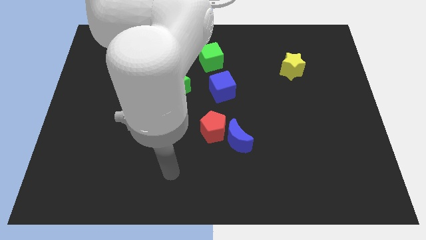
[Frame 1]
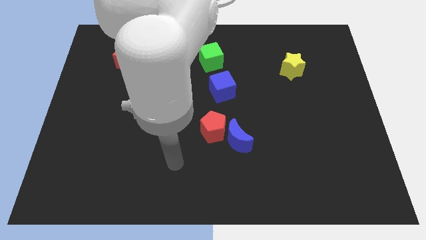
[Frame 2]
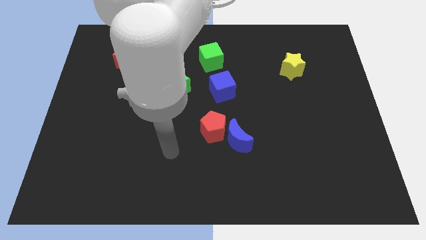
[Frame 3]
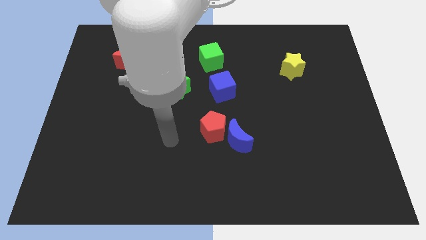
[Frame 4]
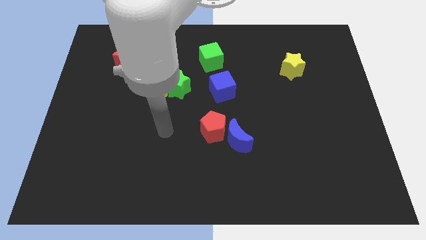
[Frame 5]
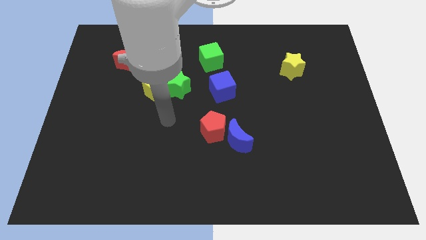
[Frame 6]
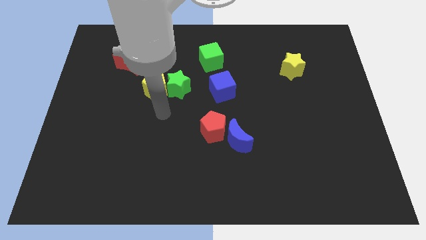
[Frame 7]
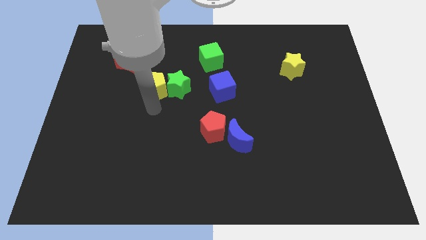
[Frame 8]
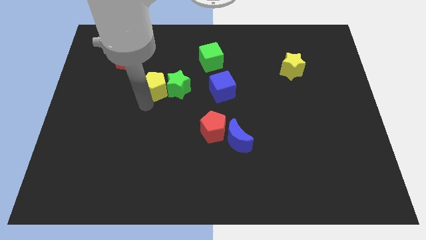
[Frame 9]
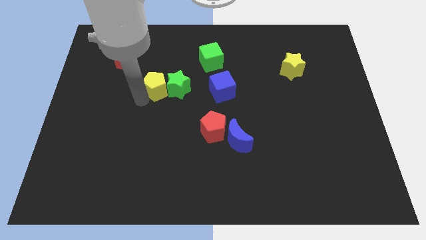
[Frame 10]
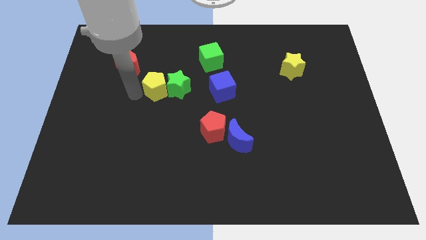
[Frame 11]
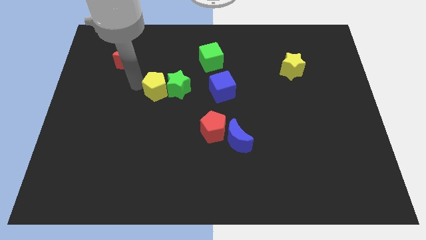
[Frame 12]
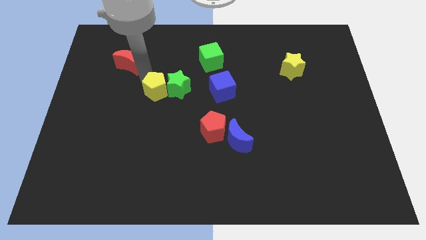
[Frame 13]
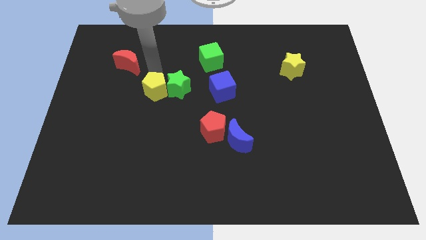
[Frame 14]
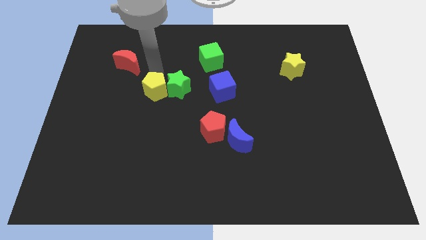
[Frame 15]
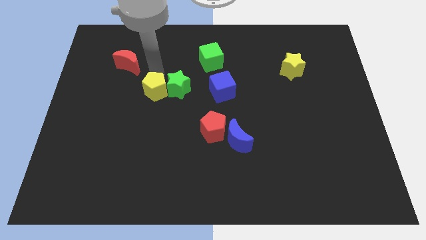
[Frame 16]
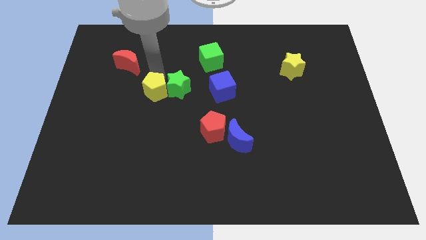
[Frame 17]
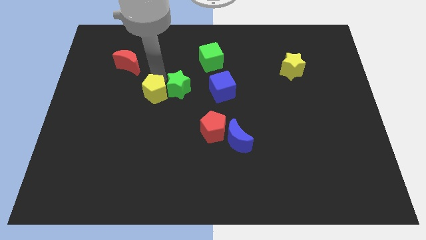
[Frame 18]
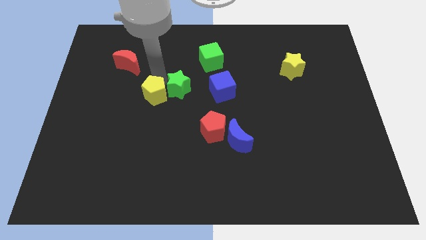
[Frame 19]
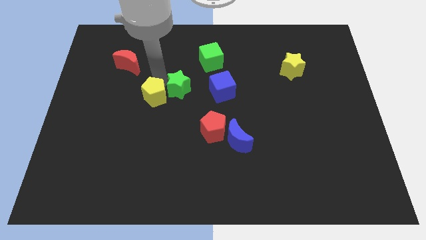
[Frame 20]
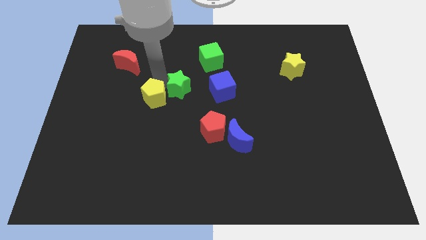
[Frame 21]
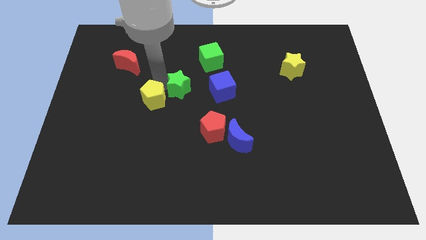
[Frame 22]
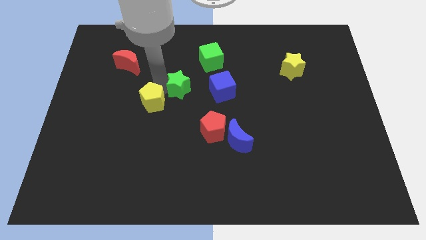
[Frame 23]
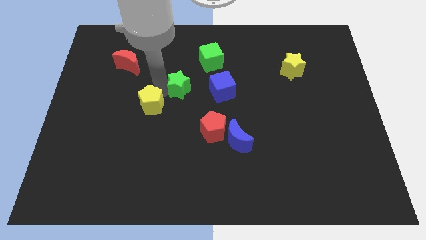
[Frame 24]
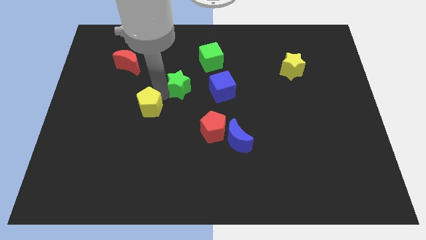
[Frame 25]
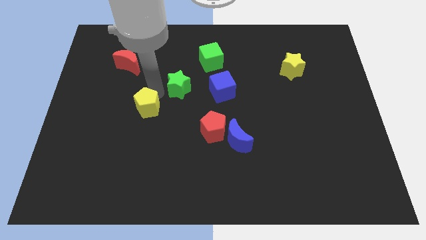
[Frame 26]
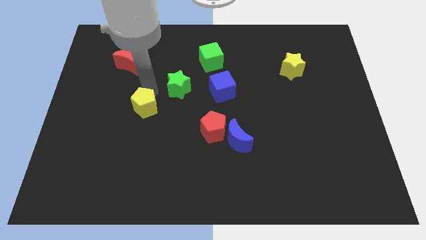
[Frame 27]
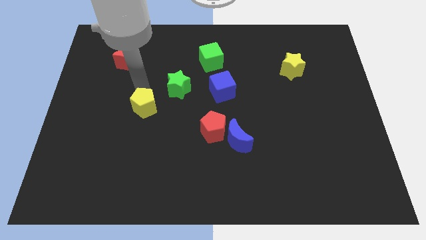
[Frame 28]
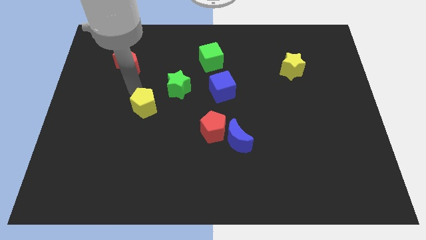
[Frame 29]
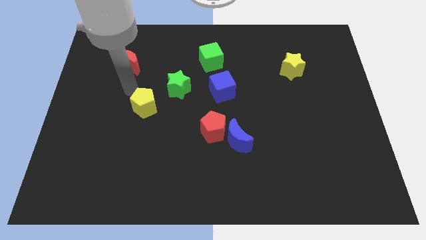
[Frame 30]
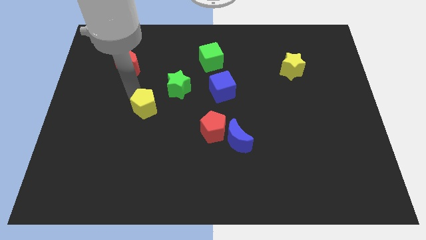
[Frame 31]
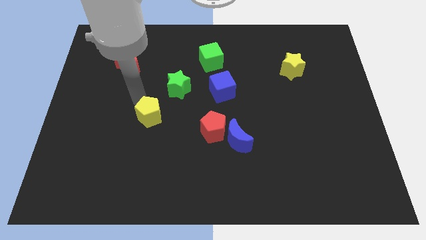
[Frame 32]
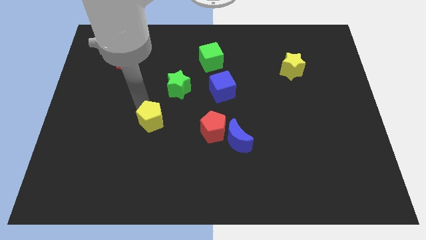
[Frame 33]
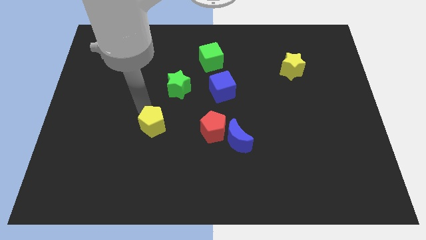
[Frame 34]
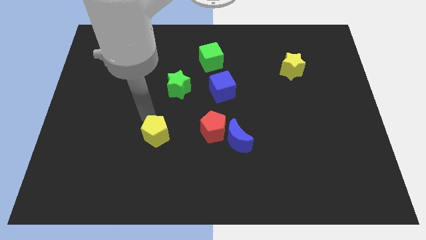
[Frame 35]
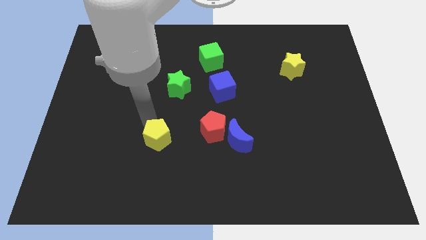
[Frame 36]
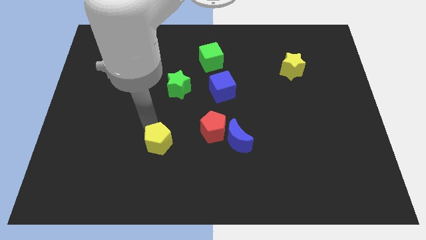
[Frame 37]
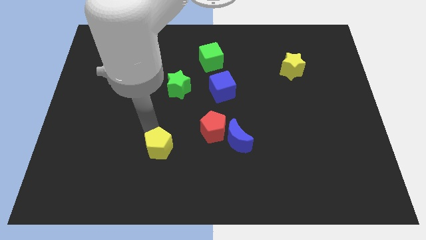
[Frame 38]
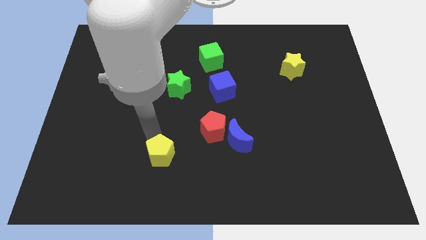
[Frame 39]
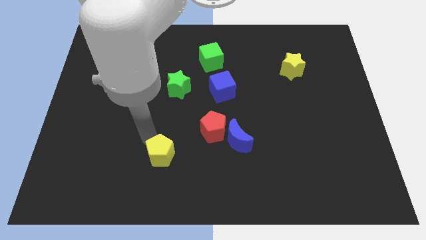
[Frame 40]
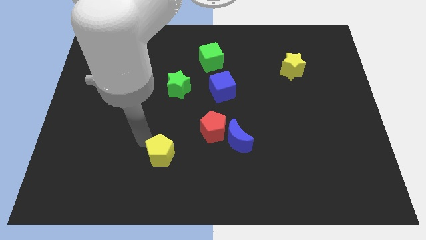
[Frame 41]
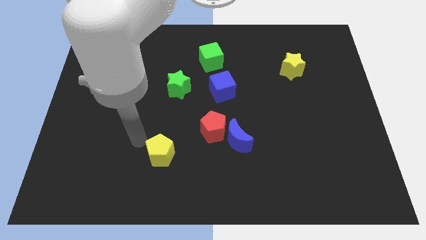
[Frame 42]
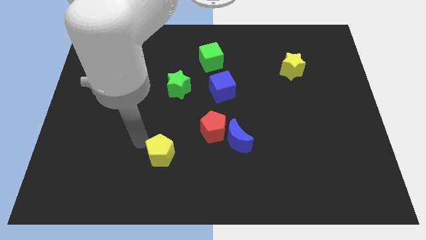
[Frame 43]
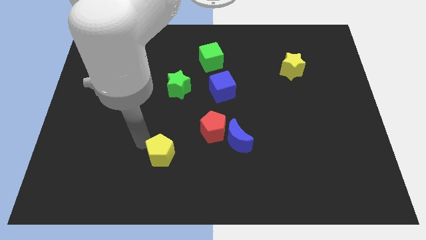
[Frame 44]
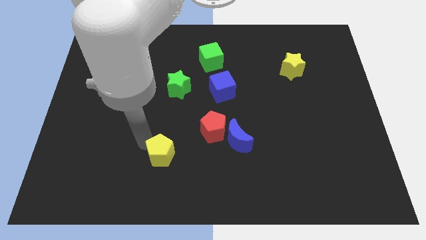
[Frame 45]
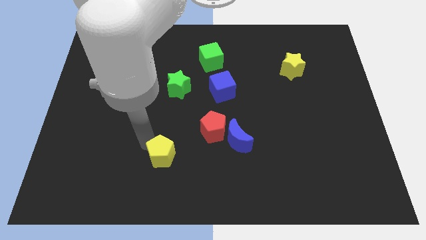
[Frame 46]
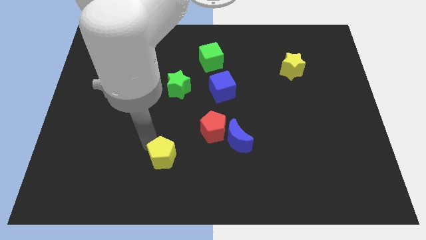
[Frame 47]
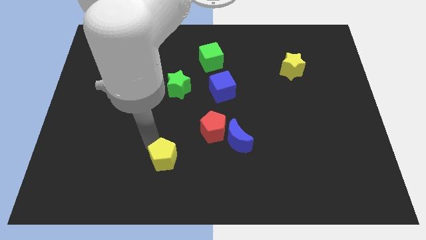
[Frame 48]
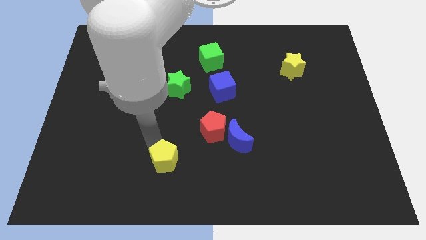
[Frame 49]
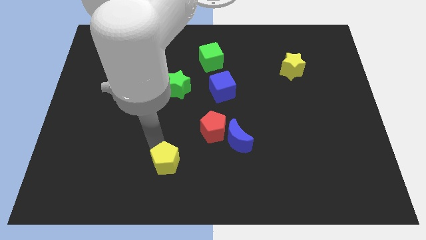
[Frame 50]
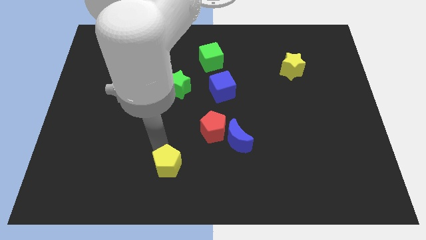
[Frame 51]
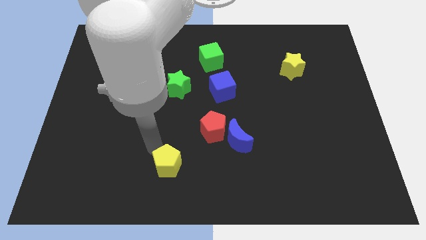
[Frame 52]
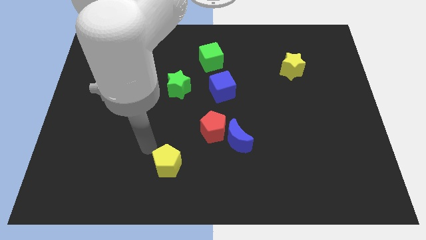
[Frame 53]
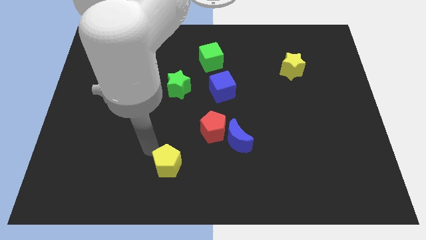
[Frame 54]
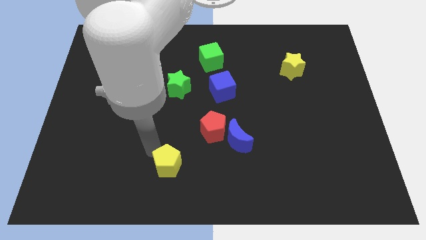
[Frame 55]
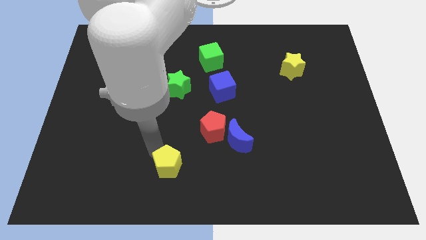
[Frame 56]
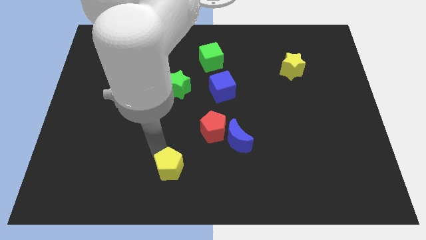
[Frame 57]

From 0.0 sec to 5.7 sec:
put the yellow pentagon to the bottom side

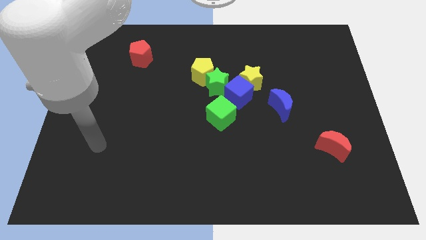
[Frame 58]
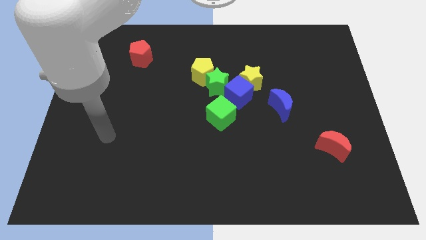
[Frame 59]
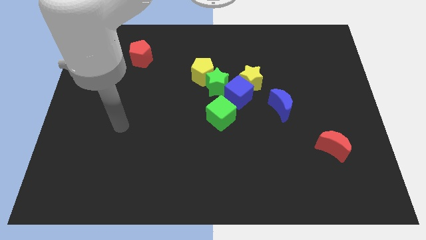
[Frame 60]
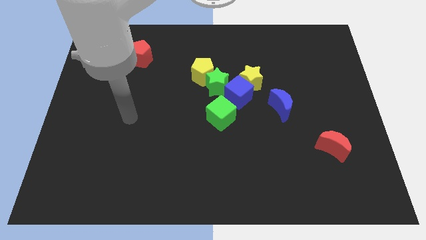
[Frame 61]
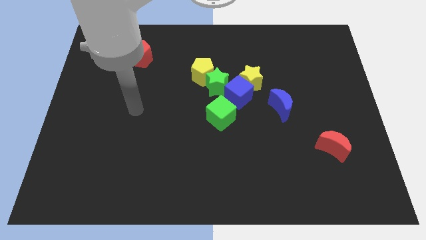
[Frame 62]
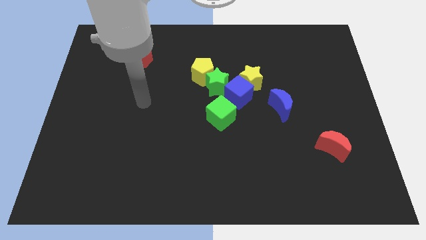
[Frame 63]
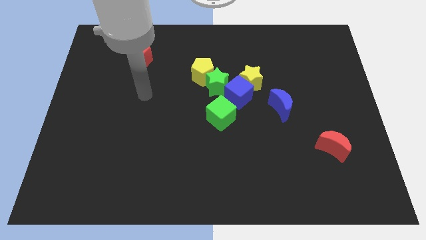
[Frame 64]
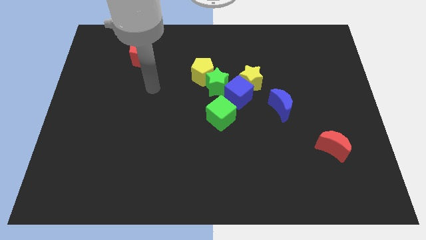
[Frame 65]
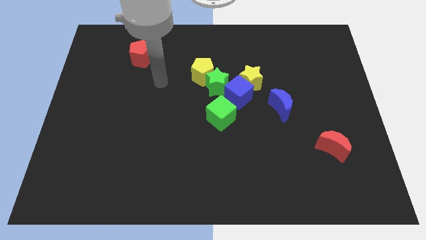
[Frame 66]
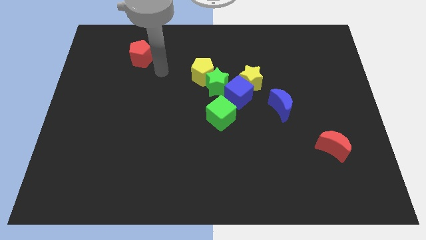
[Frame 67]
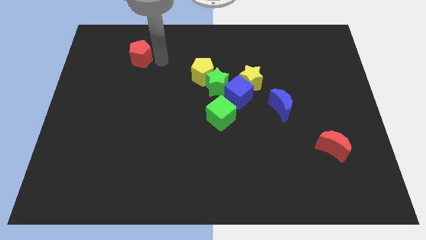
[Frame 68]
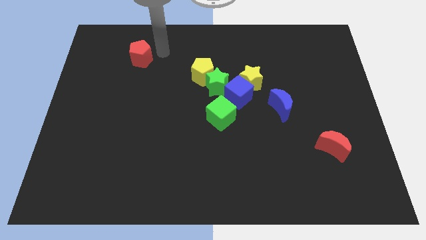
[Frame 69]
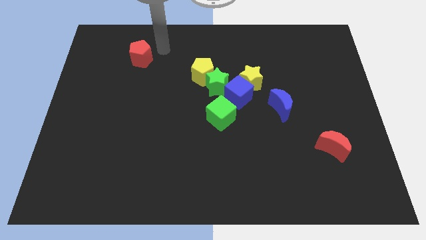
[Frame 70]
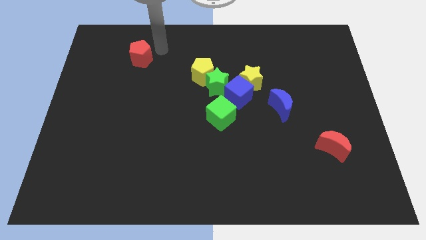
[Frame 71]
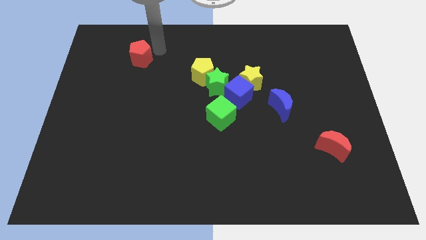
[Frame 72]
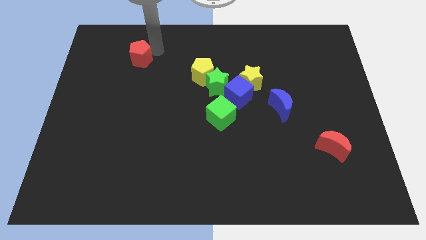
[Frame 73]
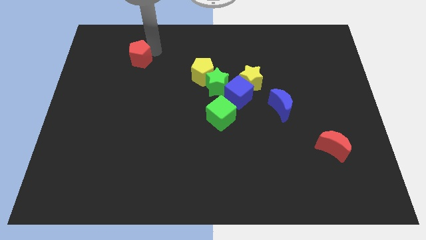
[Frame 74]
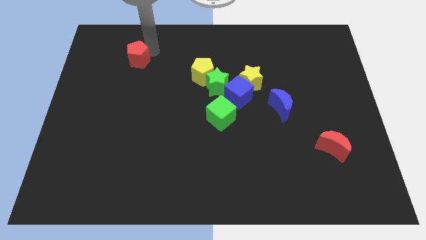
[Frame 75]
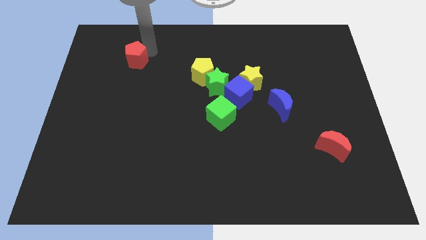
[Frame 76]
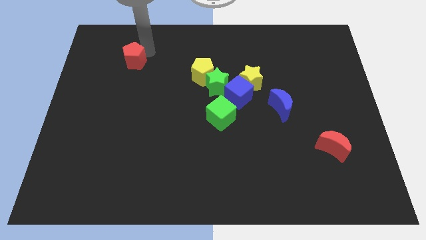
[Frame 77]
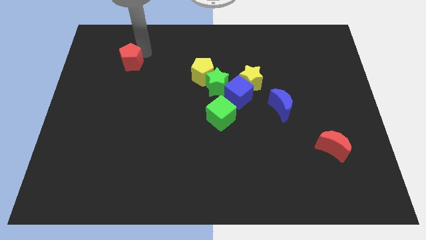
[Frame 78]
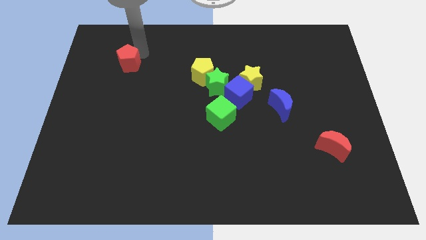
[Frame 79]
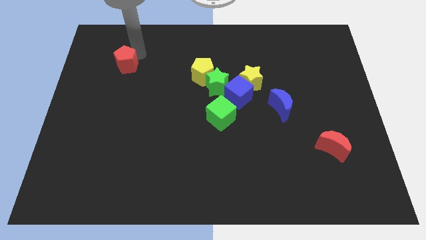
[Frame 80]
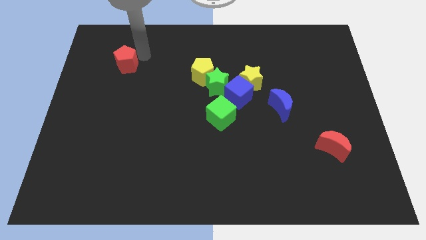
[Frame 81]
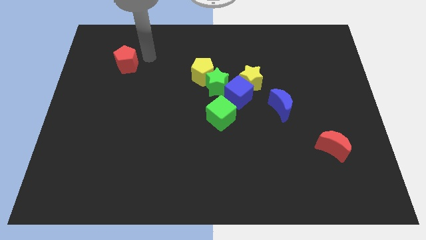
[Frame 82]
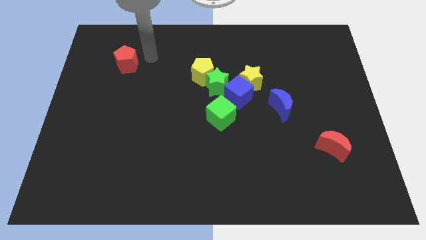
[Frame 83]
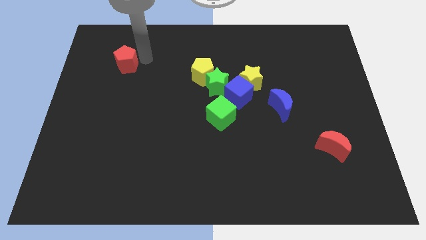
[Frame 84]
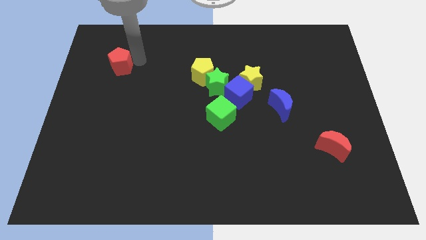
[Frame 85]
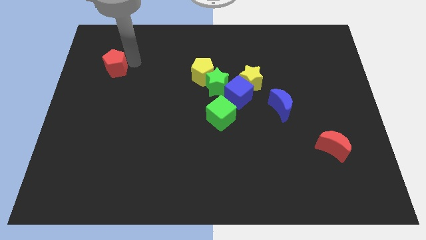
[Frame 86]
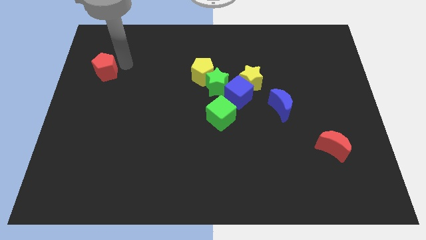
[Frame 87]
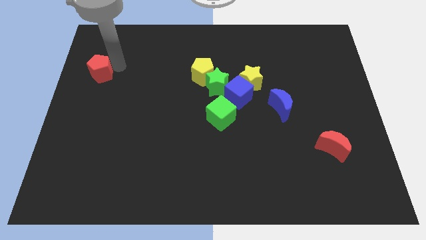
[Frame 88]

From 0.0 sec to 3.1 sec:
slide the red pentagon to the left side
